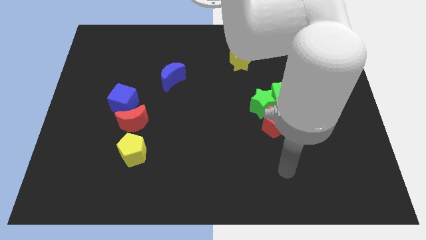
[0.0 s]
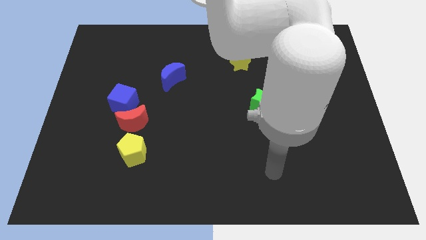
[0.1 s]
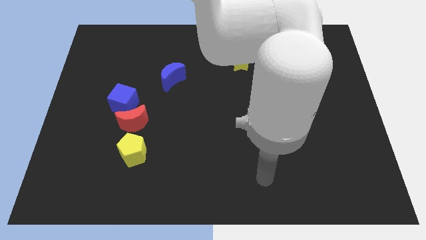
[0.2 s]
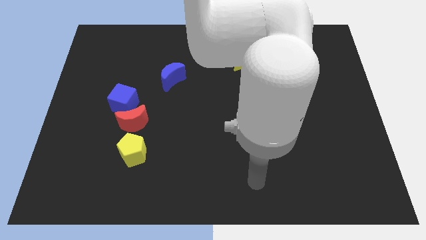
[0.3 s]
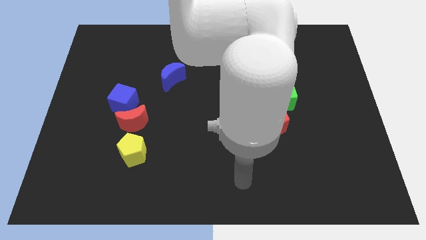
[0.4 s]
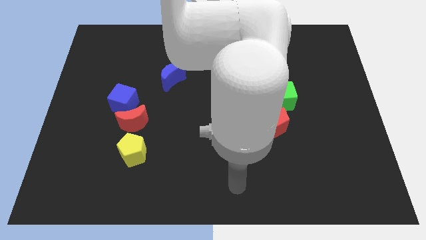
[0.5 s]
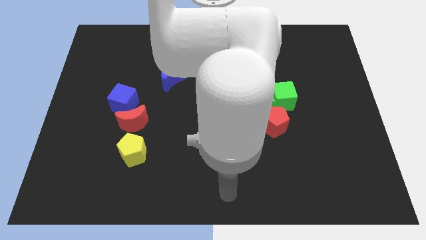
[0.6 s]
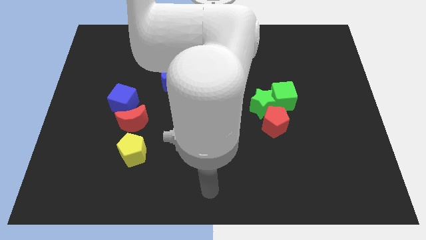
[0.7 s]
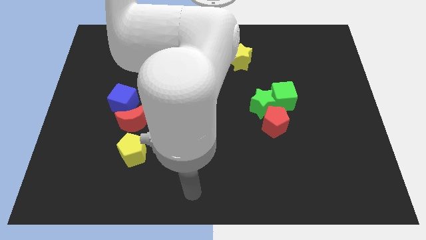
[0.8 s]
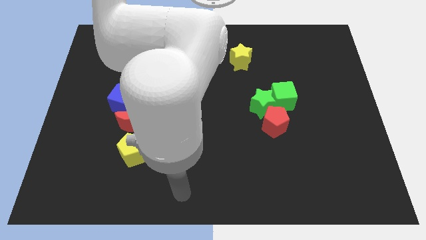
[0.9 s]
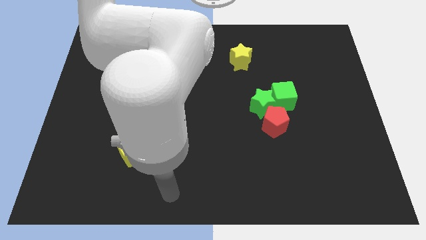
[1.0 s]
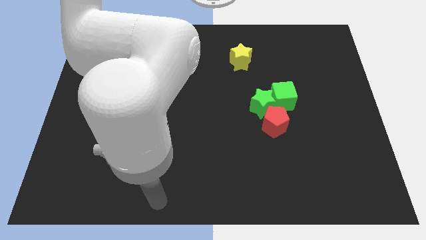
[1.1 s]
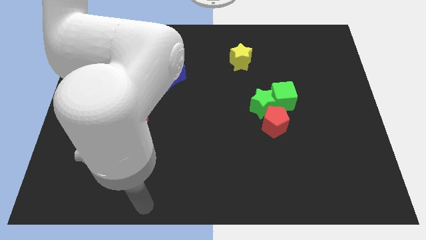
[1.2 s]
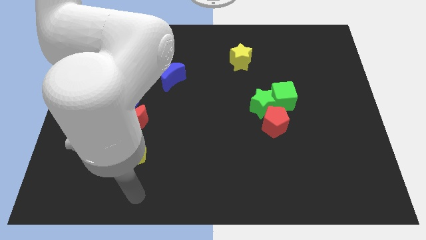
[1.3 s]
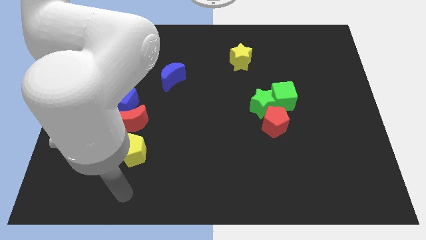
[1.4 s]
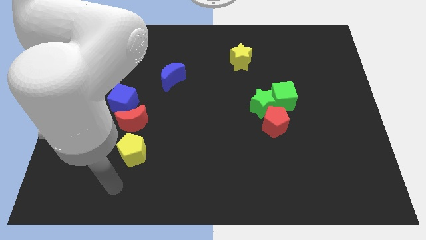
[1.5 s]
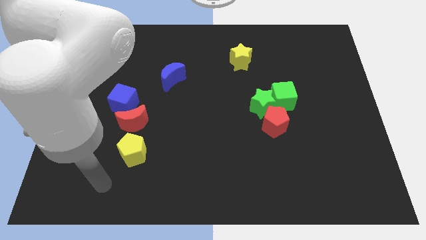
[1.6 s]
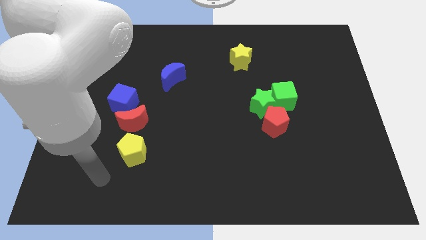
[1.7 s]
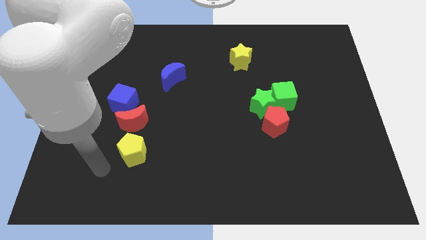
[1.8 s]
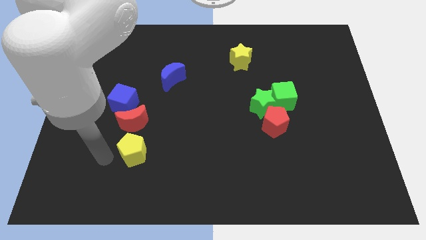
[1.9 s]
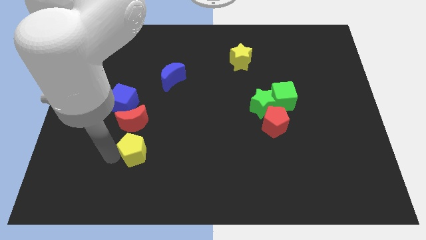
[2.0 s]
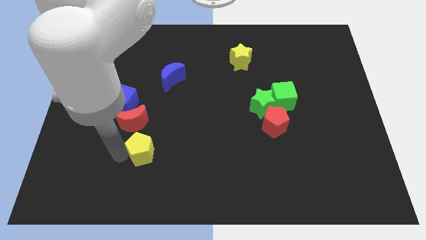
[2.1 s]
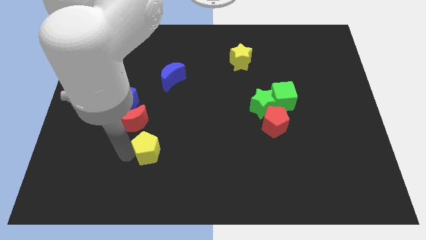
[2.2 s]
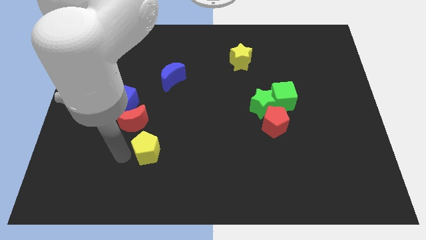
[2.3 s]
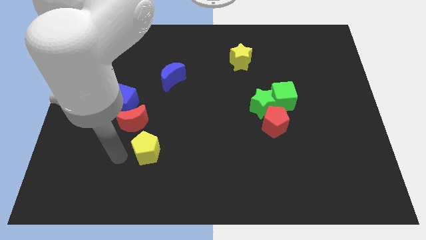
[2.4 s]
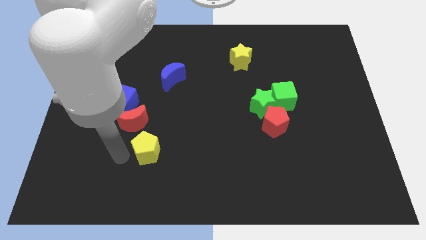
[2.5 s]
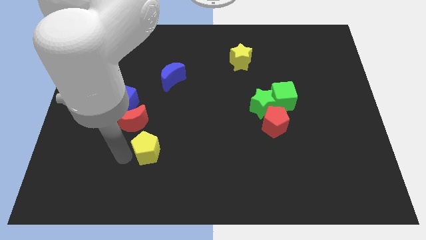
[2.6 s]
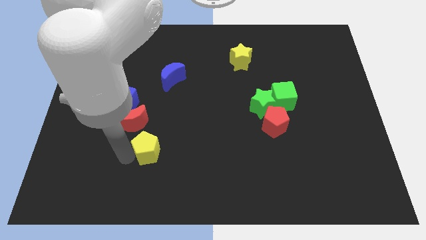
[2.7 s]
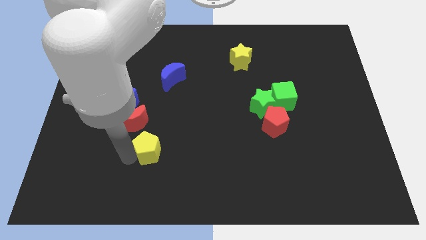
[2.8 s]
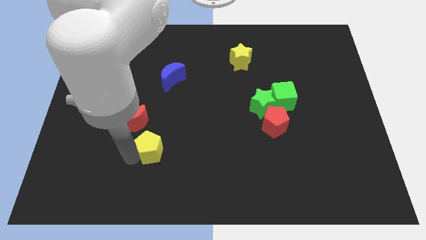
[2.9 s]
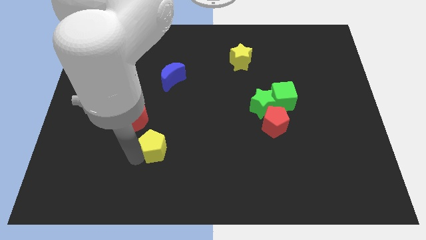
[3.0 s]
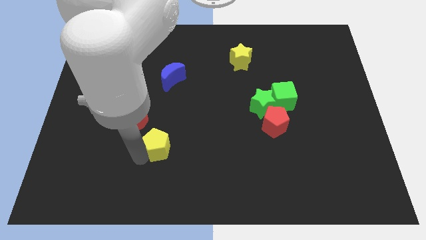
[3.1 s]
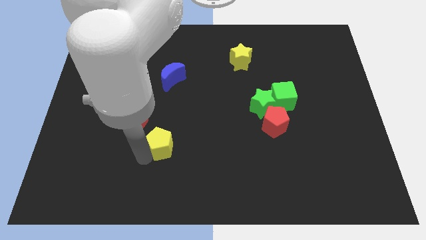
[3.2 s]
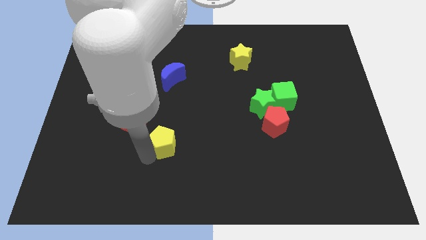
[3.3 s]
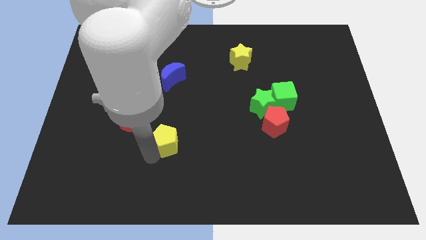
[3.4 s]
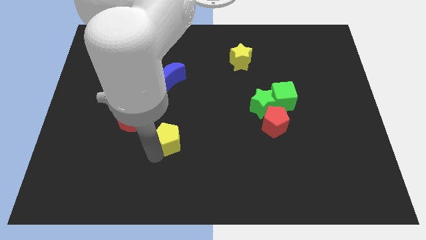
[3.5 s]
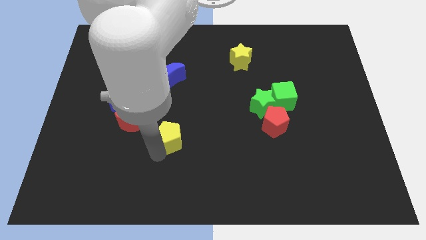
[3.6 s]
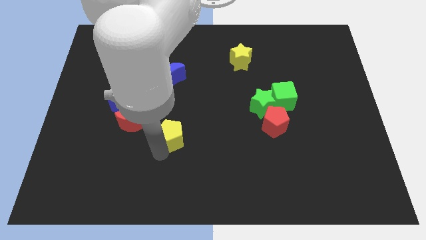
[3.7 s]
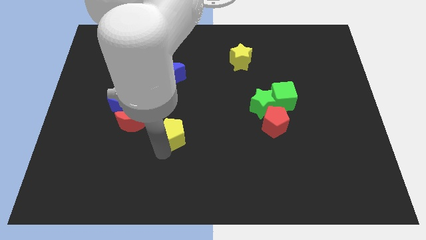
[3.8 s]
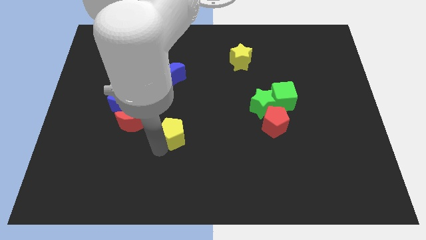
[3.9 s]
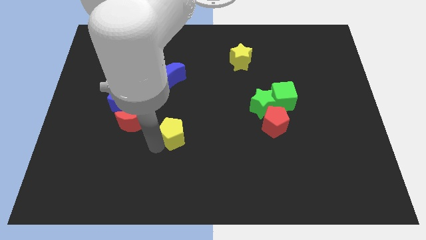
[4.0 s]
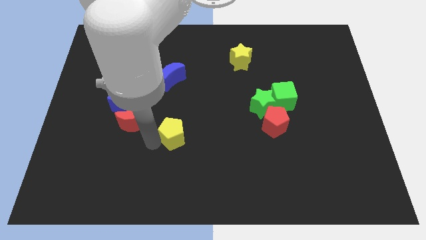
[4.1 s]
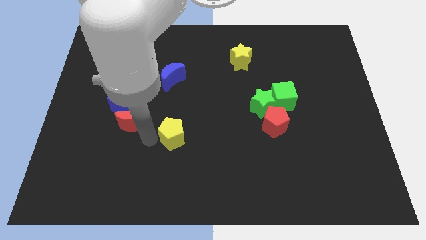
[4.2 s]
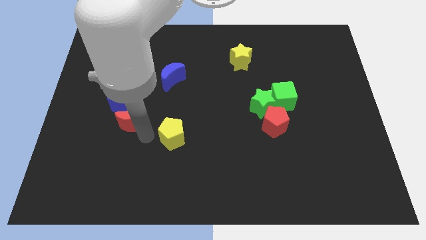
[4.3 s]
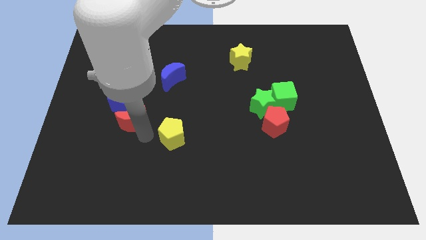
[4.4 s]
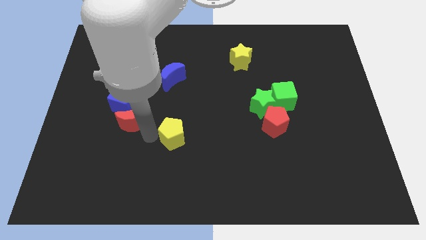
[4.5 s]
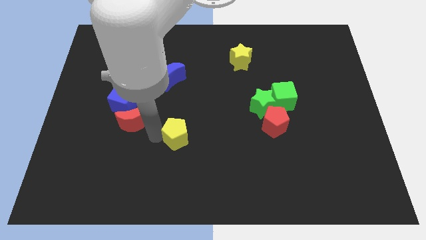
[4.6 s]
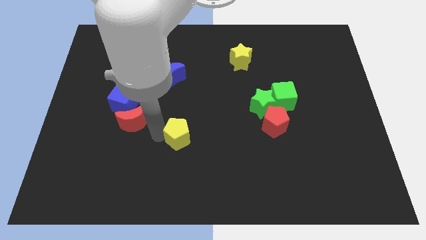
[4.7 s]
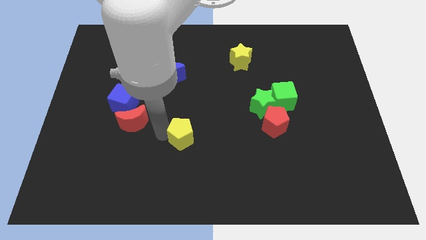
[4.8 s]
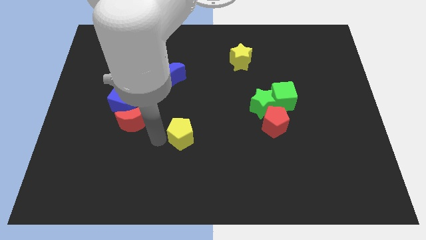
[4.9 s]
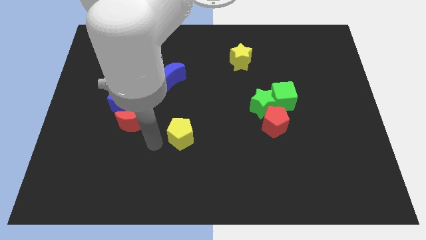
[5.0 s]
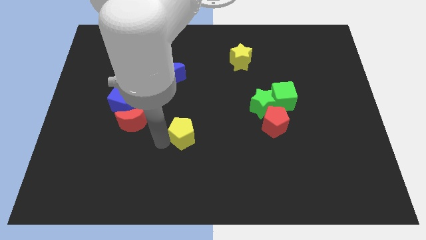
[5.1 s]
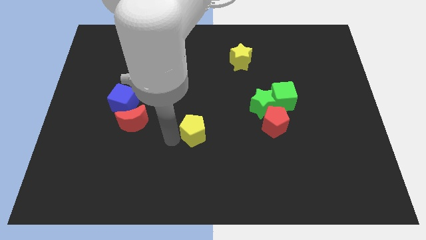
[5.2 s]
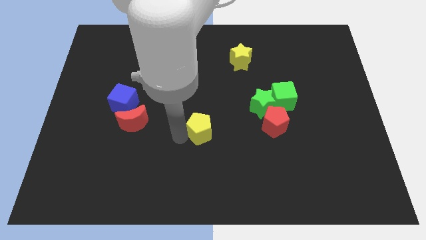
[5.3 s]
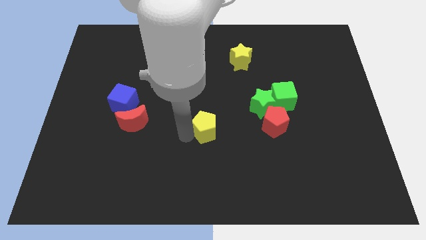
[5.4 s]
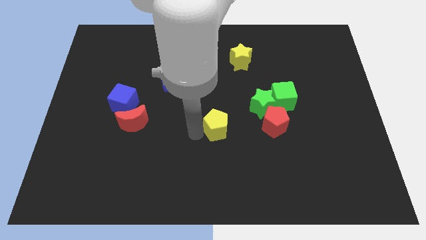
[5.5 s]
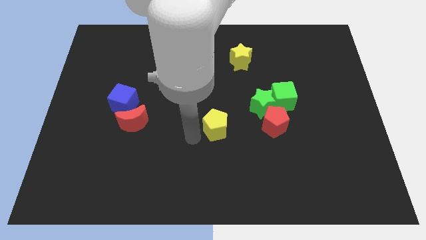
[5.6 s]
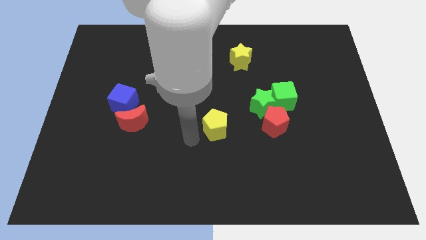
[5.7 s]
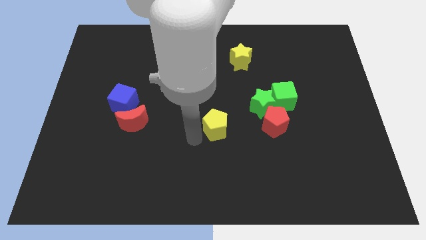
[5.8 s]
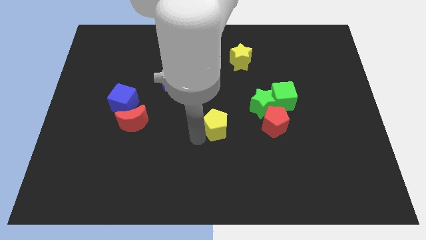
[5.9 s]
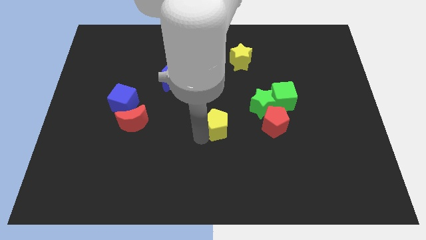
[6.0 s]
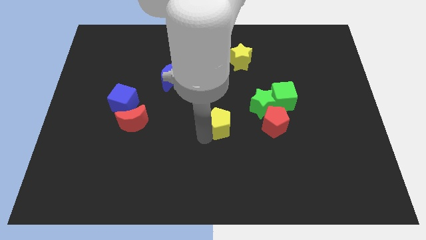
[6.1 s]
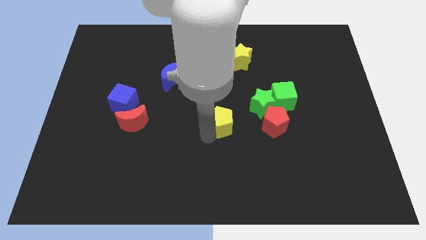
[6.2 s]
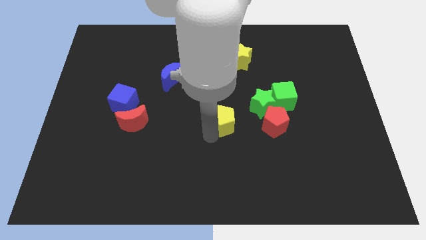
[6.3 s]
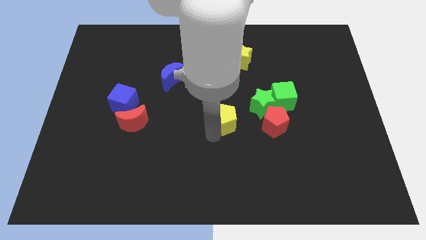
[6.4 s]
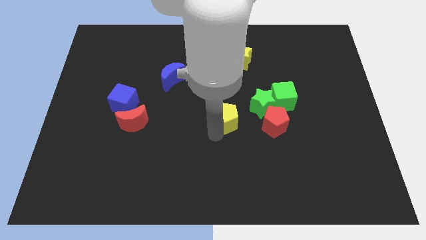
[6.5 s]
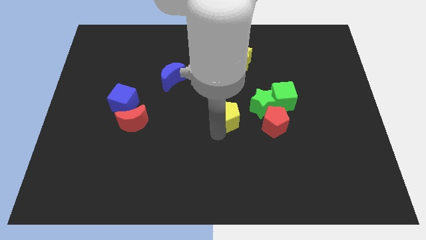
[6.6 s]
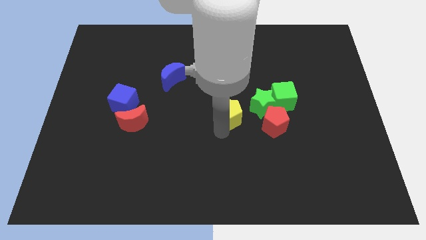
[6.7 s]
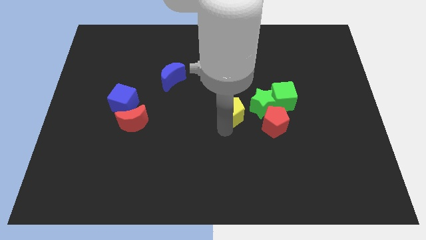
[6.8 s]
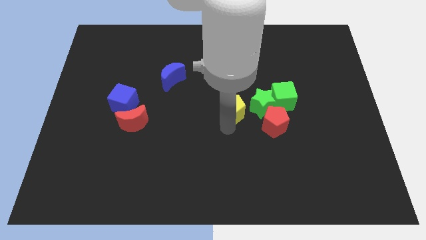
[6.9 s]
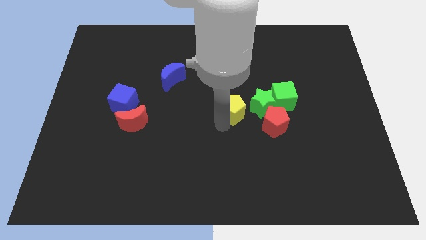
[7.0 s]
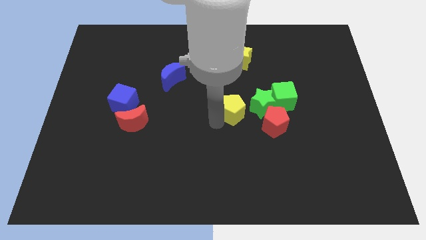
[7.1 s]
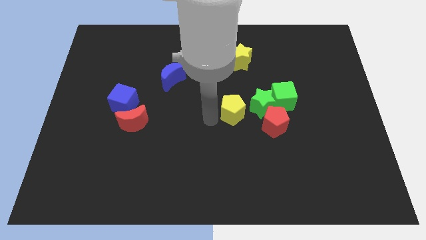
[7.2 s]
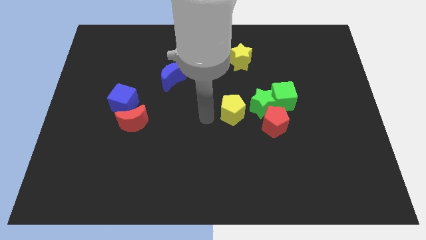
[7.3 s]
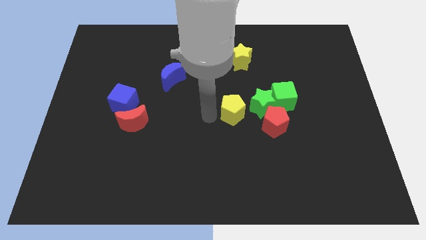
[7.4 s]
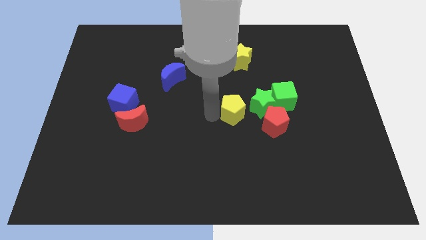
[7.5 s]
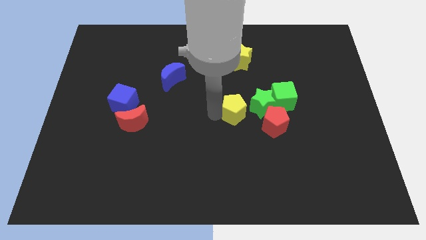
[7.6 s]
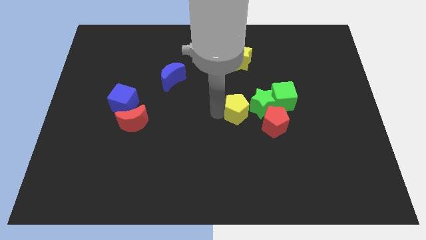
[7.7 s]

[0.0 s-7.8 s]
move the yellow pentagon close to the green star
